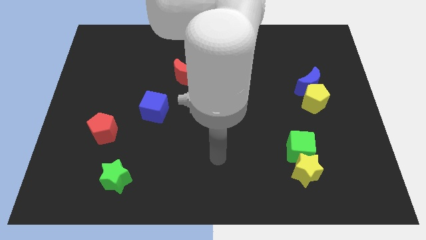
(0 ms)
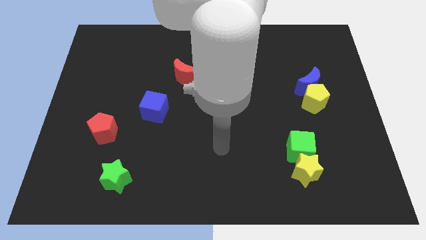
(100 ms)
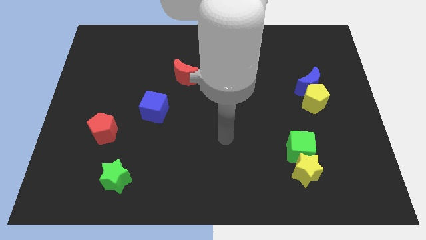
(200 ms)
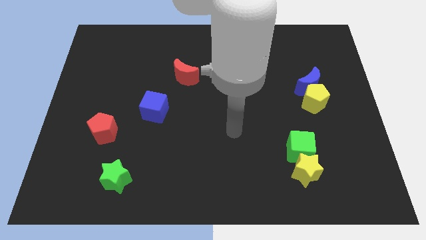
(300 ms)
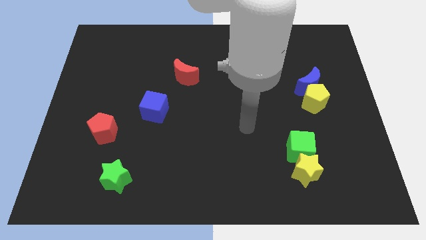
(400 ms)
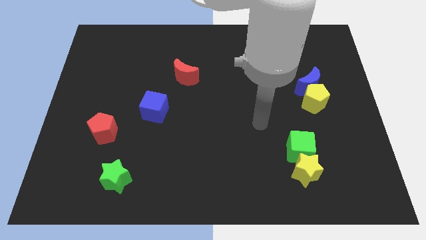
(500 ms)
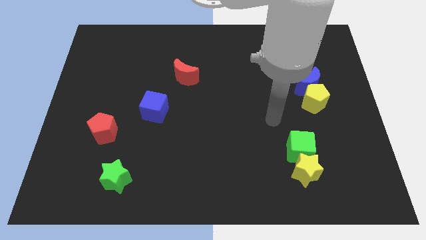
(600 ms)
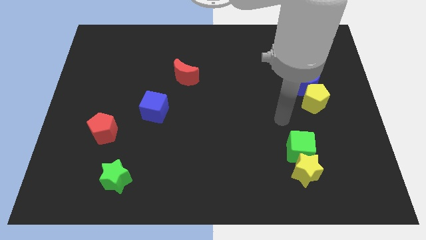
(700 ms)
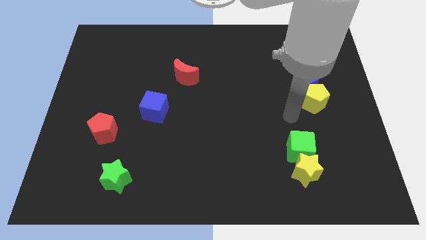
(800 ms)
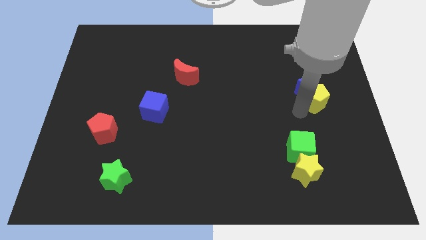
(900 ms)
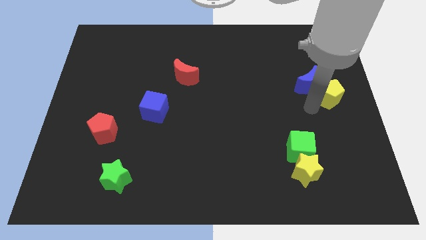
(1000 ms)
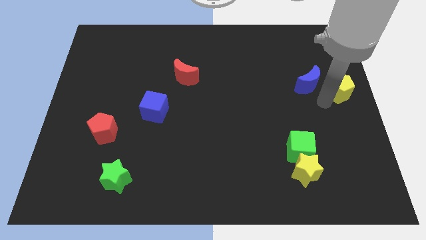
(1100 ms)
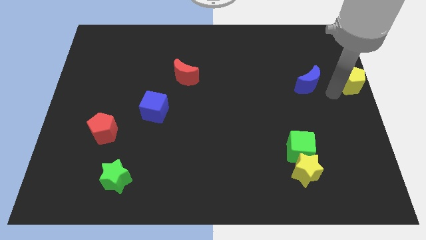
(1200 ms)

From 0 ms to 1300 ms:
pull the blue moon apart from the yellow pentagon

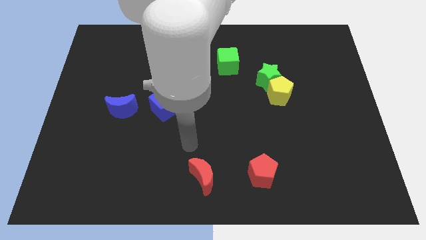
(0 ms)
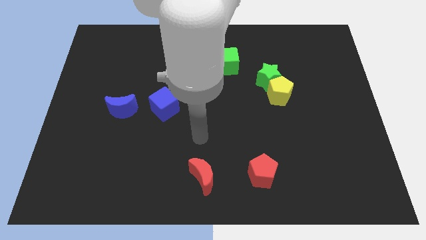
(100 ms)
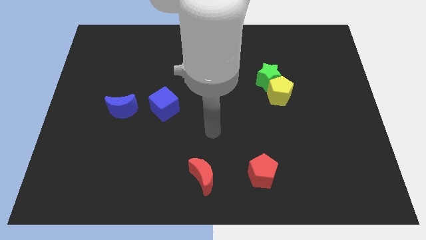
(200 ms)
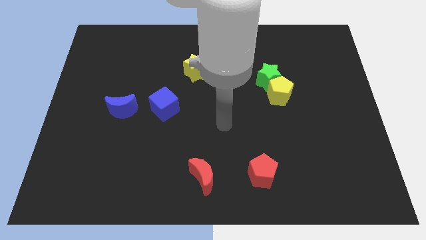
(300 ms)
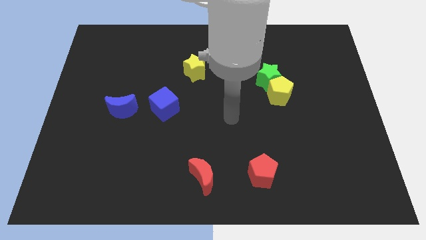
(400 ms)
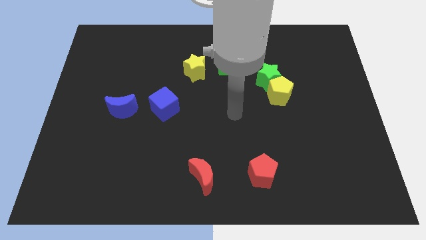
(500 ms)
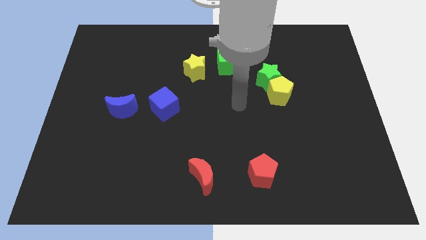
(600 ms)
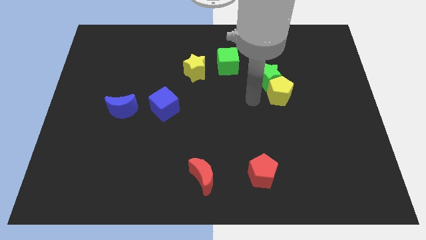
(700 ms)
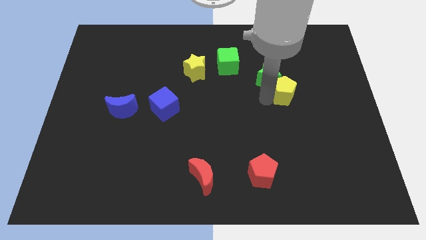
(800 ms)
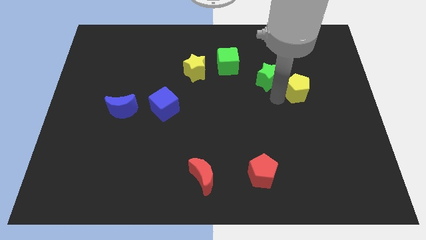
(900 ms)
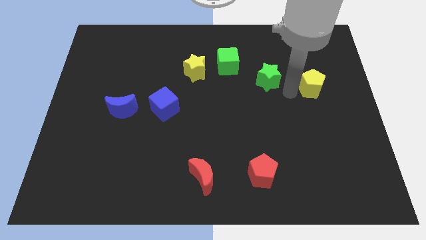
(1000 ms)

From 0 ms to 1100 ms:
pull the green star apart from the yellow pentagon

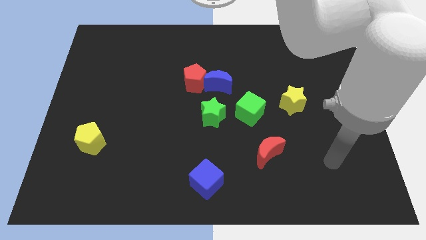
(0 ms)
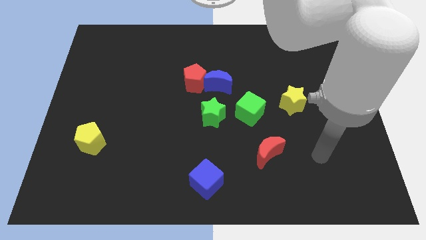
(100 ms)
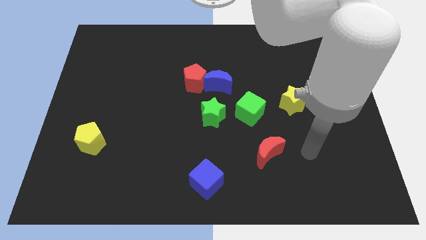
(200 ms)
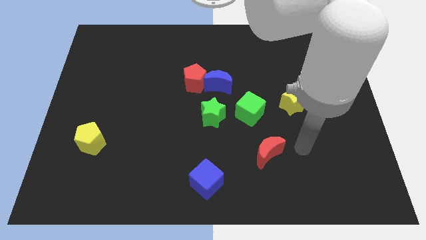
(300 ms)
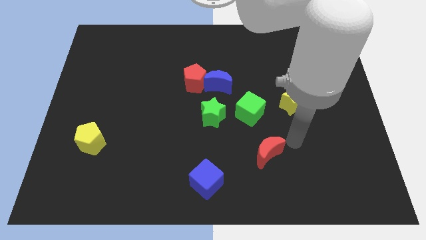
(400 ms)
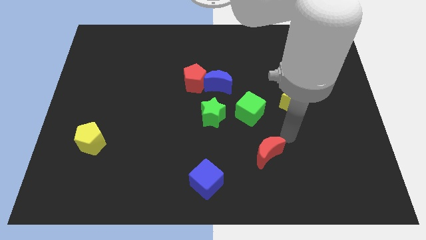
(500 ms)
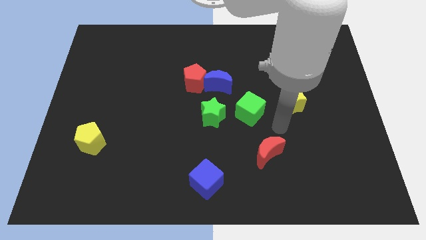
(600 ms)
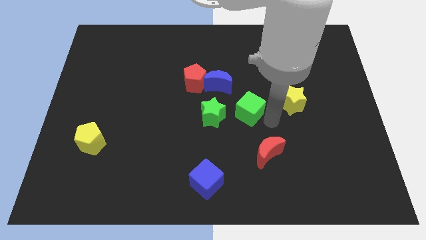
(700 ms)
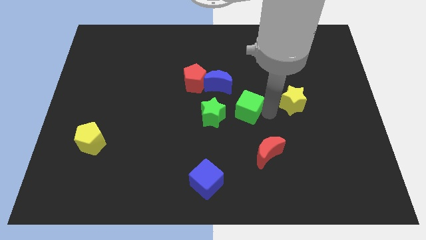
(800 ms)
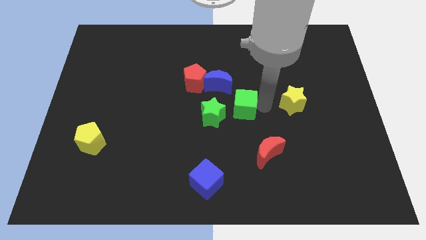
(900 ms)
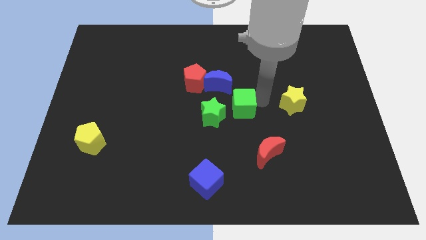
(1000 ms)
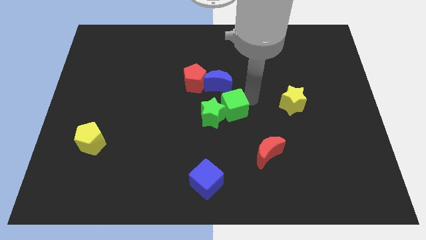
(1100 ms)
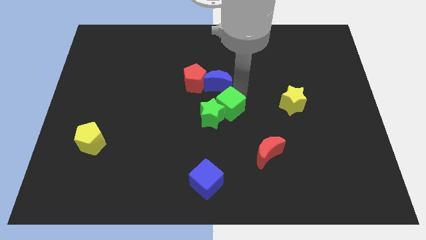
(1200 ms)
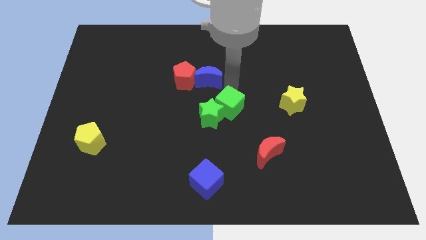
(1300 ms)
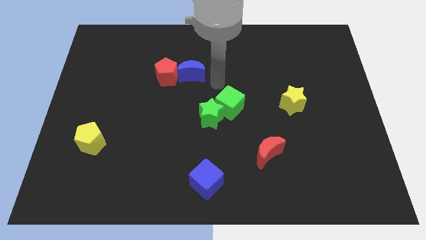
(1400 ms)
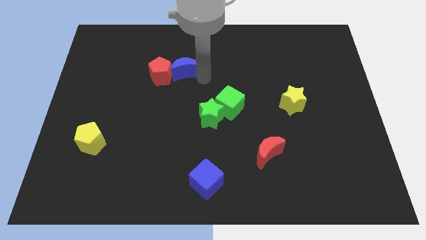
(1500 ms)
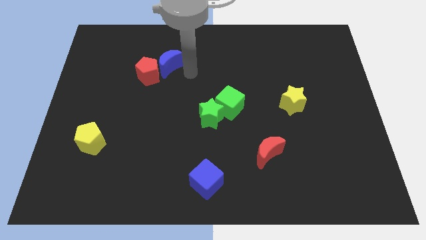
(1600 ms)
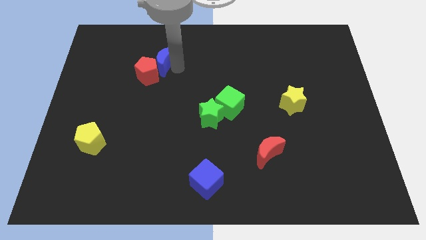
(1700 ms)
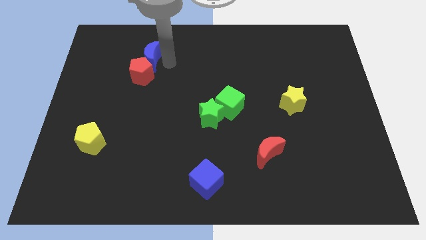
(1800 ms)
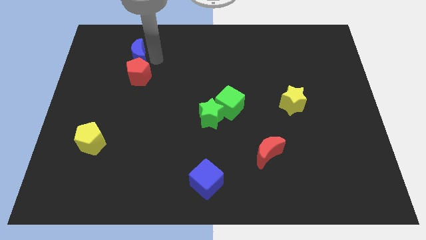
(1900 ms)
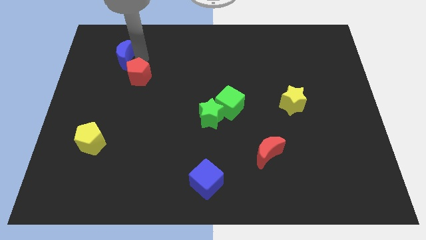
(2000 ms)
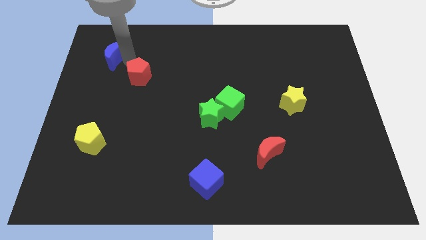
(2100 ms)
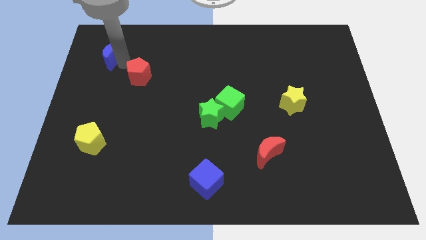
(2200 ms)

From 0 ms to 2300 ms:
move the red pentagon away from the blue moon

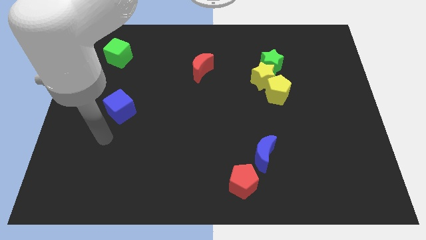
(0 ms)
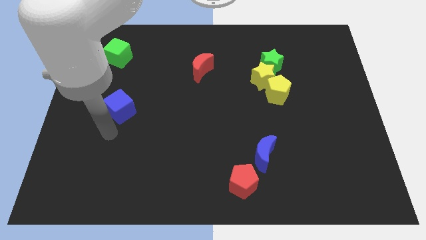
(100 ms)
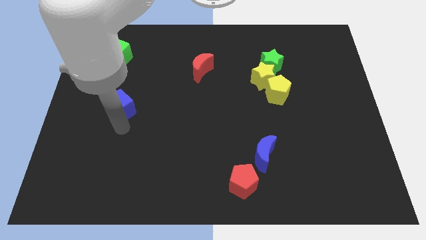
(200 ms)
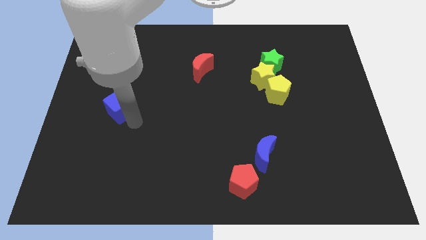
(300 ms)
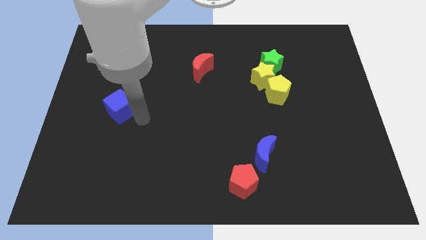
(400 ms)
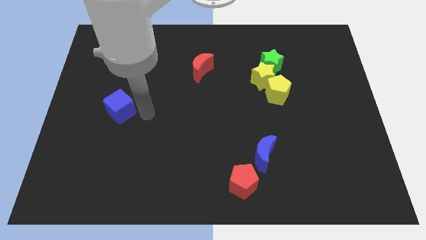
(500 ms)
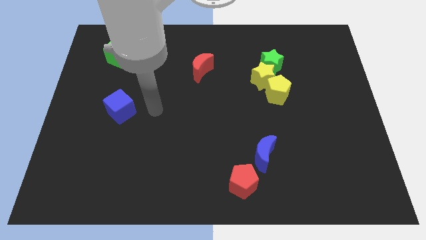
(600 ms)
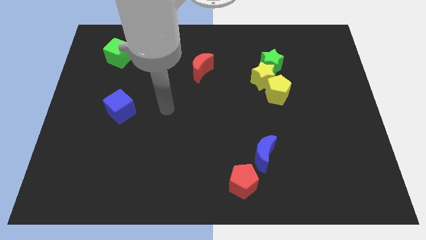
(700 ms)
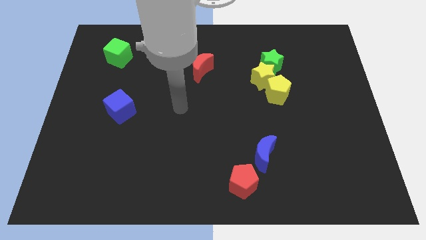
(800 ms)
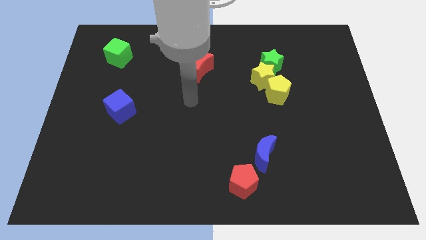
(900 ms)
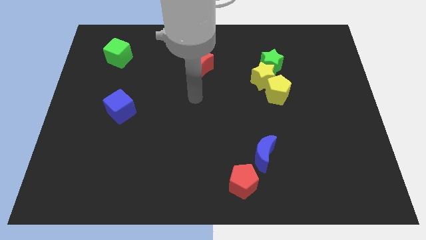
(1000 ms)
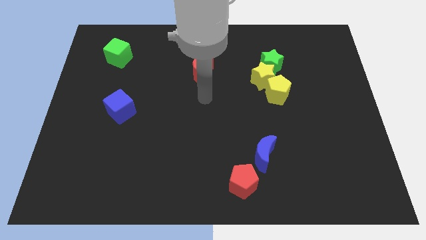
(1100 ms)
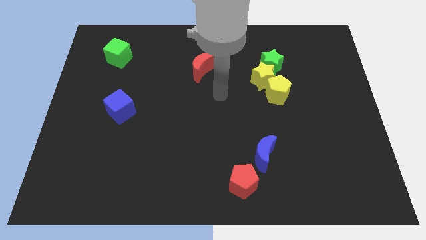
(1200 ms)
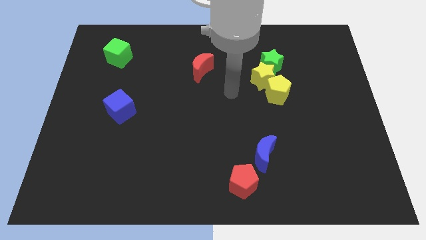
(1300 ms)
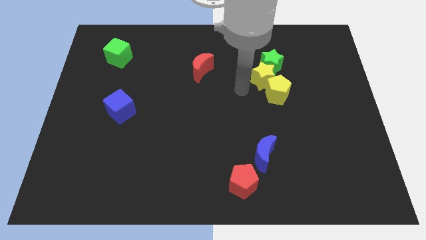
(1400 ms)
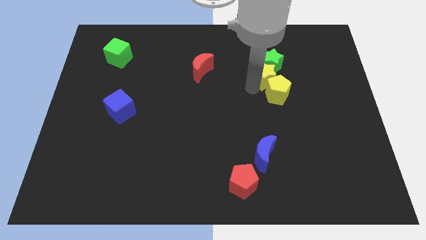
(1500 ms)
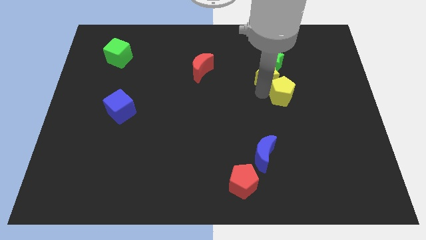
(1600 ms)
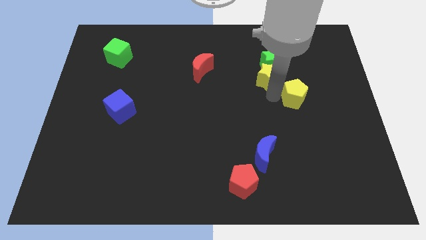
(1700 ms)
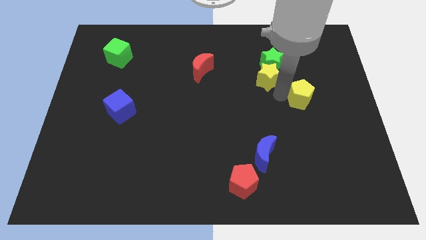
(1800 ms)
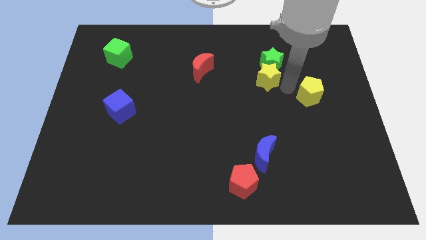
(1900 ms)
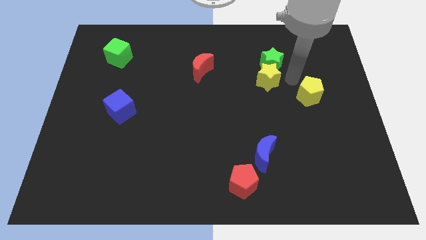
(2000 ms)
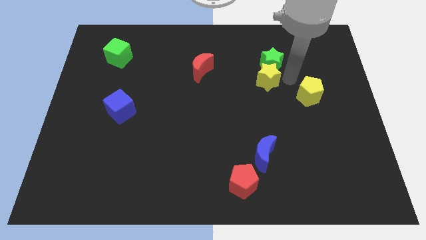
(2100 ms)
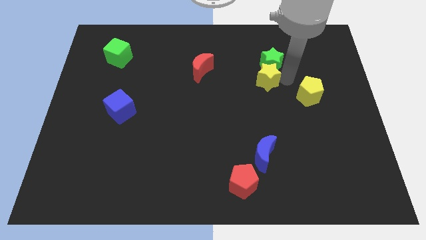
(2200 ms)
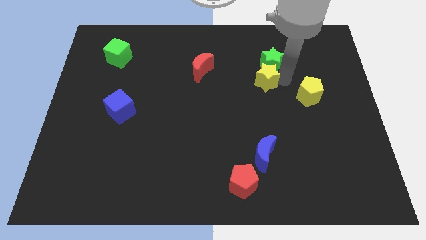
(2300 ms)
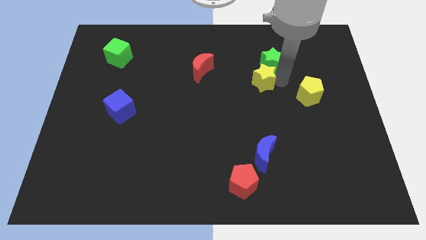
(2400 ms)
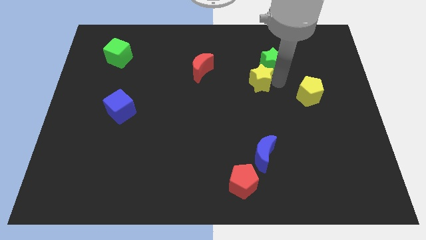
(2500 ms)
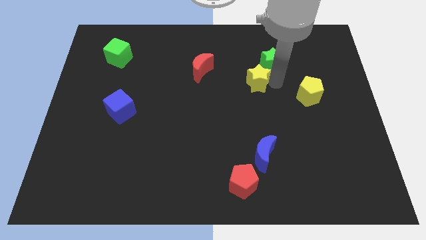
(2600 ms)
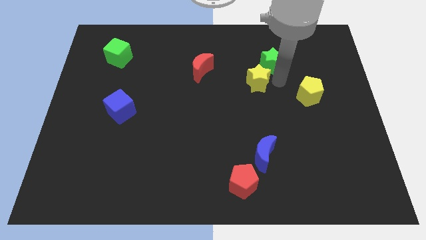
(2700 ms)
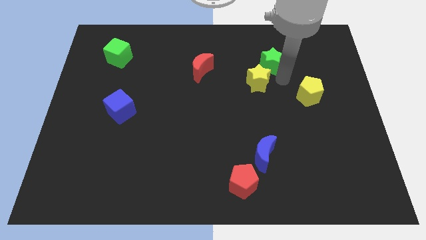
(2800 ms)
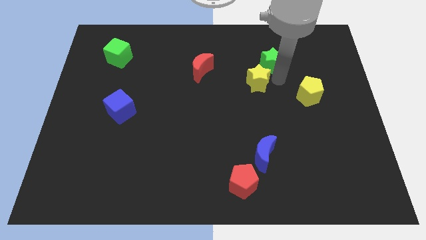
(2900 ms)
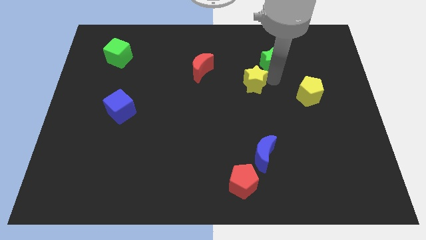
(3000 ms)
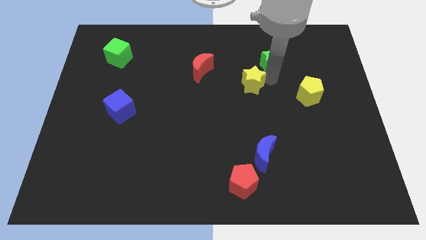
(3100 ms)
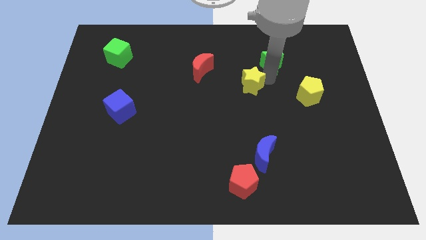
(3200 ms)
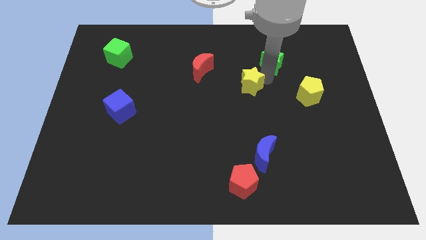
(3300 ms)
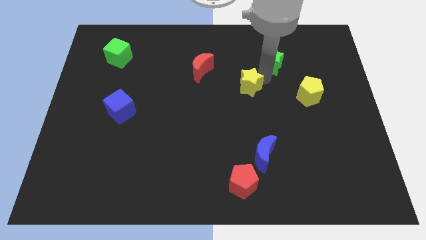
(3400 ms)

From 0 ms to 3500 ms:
pull the yellow star apart from the green star and yellow pentagon

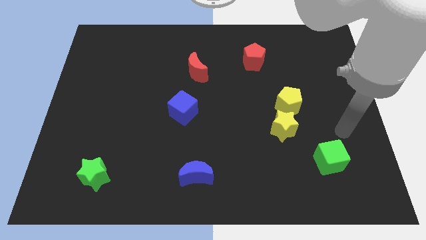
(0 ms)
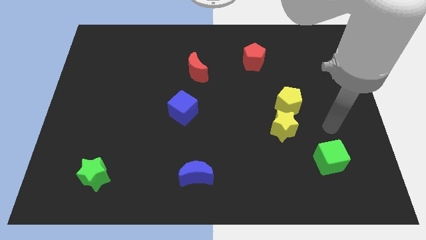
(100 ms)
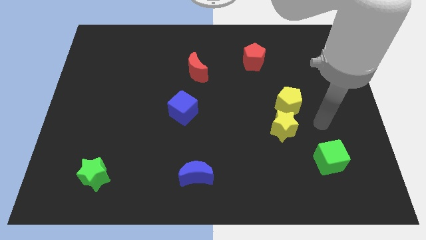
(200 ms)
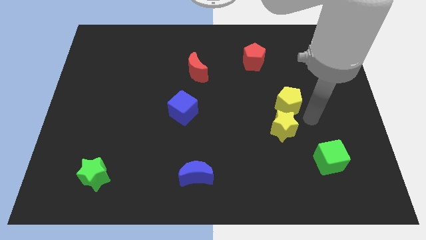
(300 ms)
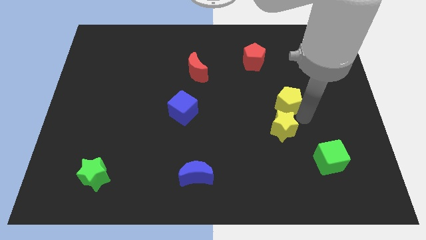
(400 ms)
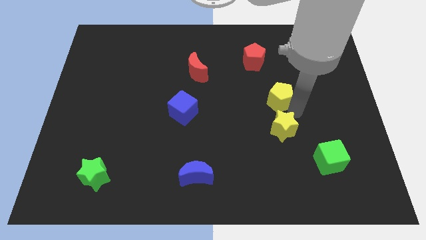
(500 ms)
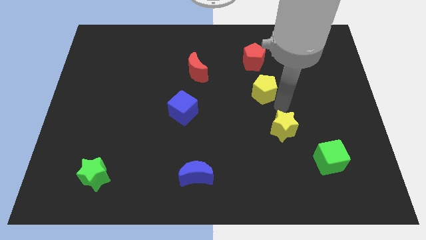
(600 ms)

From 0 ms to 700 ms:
move the yellow star away from the yellow pentagon

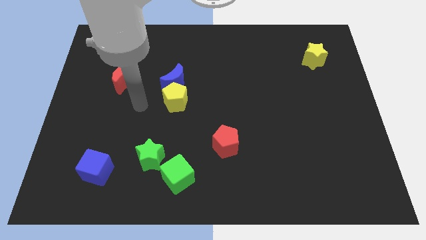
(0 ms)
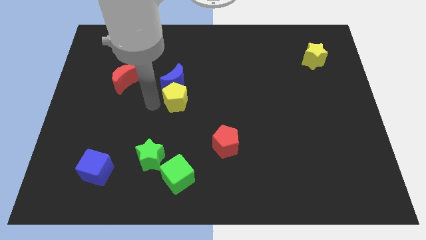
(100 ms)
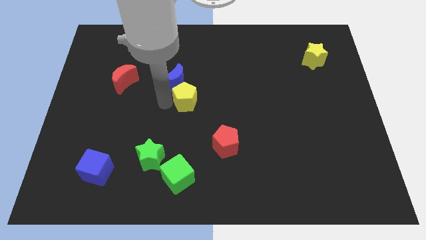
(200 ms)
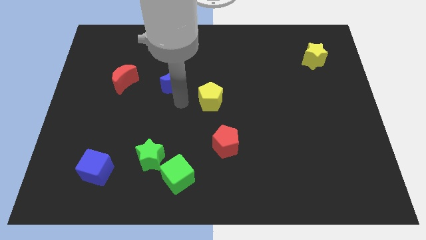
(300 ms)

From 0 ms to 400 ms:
move the blue moon away from the yellow pentagon

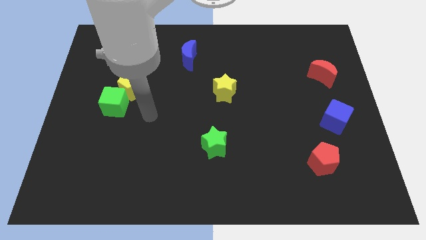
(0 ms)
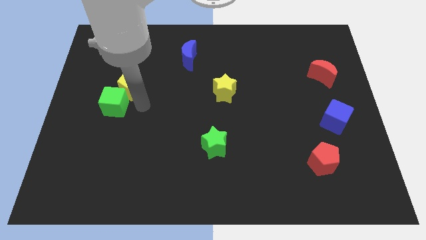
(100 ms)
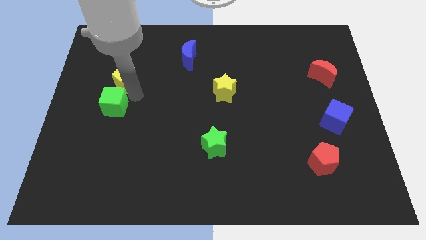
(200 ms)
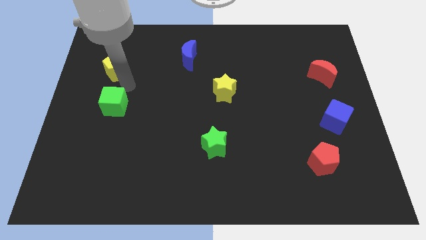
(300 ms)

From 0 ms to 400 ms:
move the green cube away from the yellow pentagon
